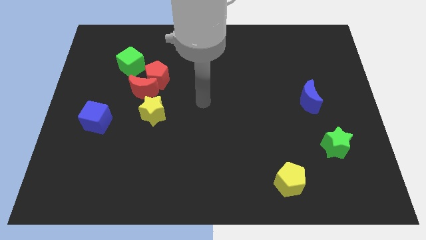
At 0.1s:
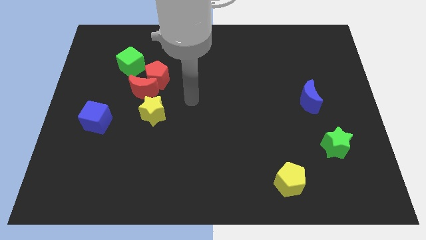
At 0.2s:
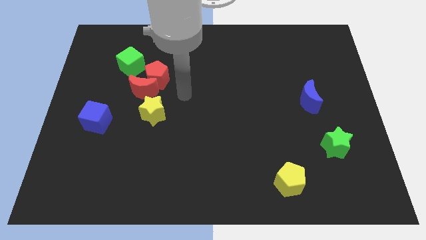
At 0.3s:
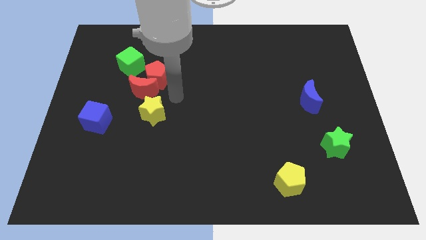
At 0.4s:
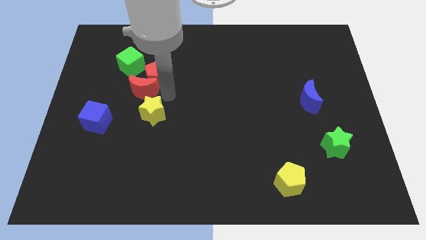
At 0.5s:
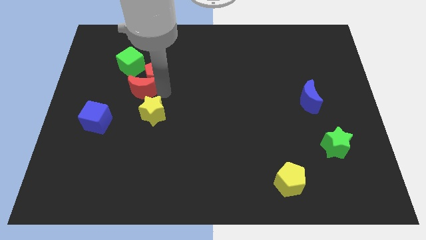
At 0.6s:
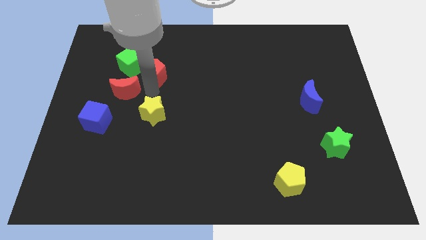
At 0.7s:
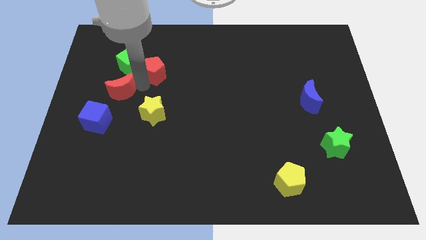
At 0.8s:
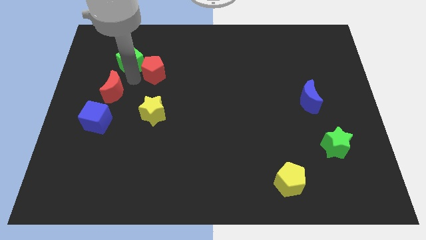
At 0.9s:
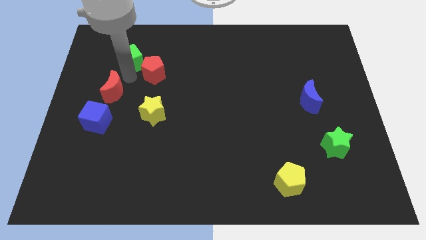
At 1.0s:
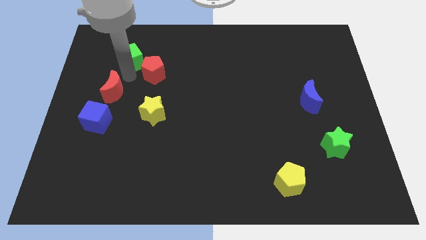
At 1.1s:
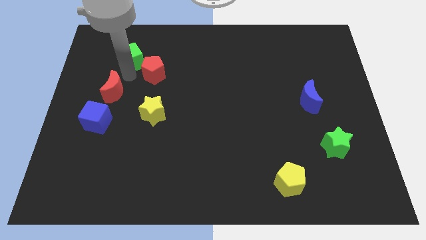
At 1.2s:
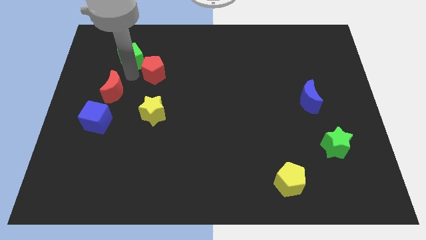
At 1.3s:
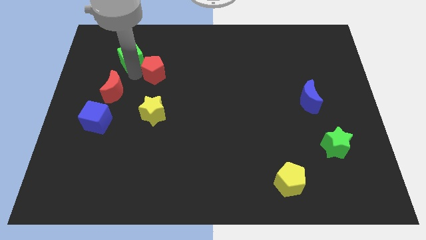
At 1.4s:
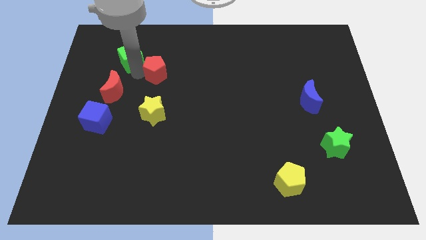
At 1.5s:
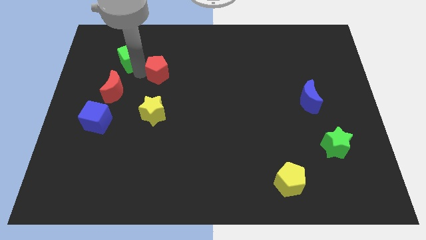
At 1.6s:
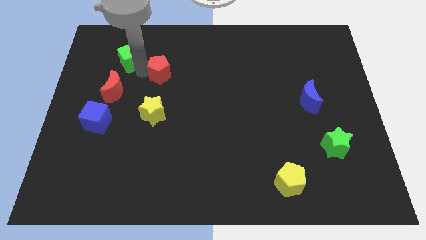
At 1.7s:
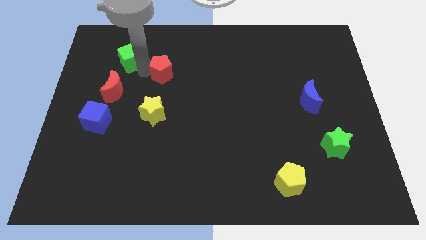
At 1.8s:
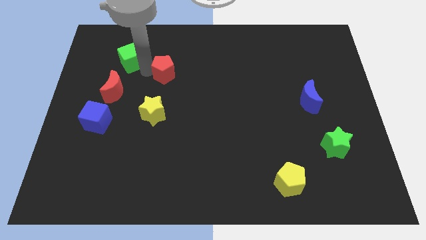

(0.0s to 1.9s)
move the red pentagon away from the red moon and green cube

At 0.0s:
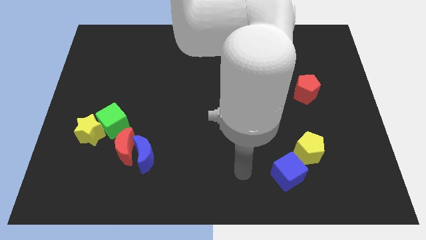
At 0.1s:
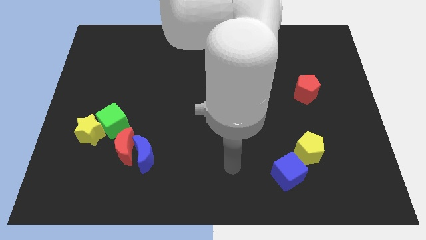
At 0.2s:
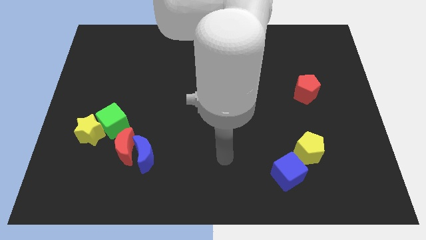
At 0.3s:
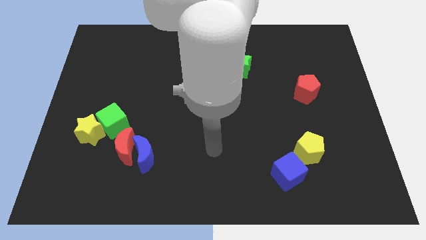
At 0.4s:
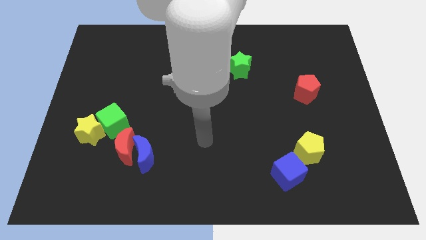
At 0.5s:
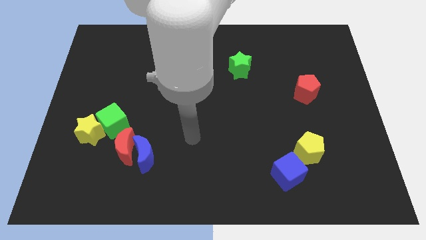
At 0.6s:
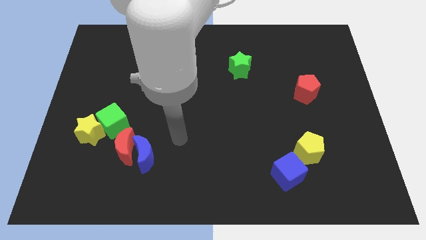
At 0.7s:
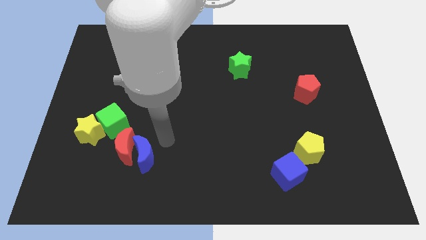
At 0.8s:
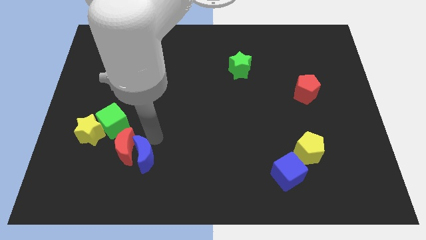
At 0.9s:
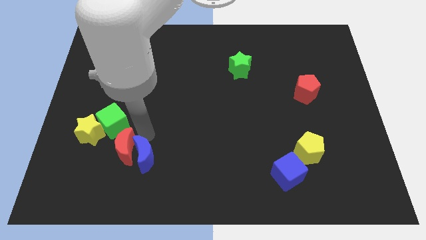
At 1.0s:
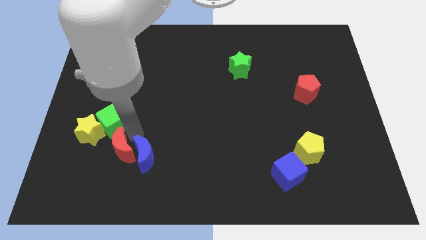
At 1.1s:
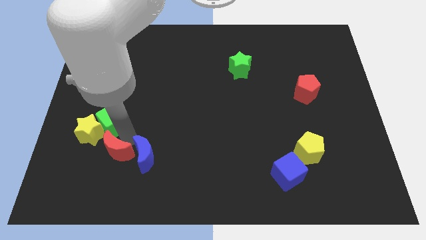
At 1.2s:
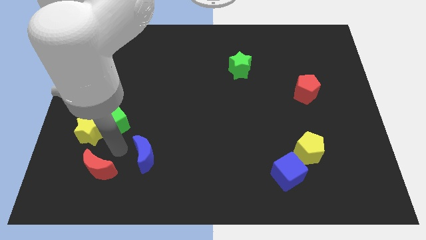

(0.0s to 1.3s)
move the blue moon away from the red moon

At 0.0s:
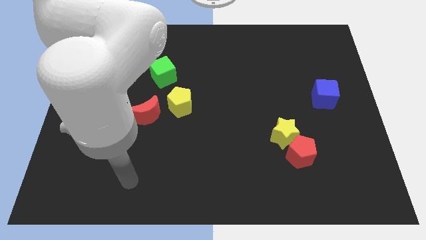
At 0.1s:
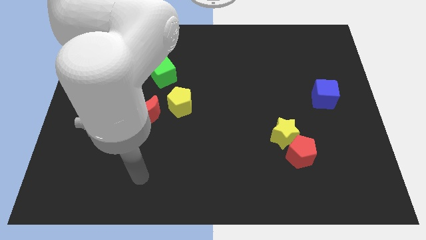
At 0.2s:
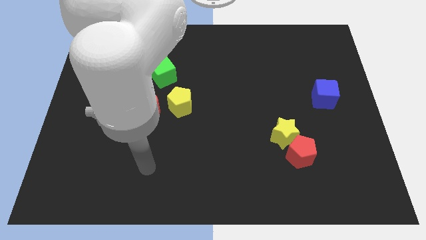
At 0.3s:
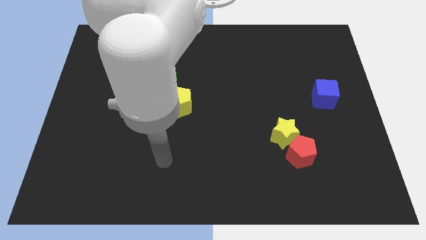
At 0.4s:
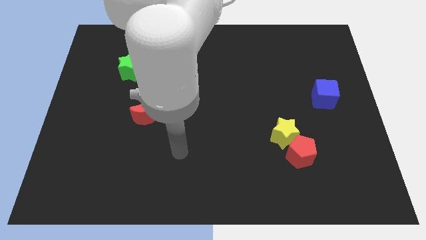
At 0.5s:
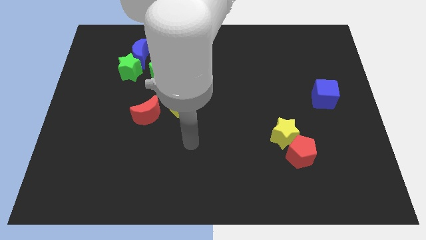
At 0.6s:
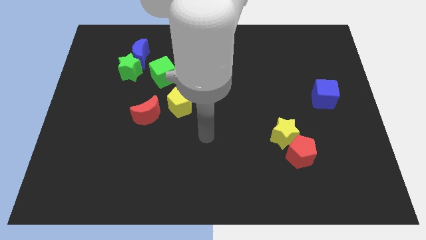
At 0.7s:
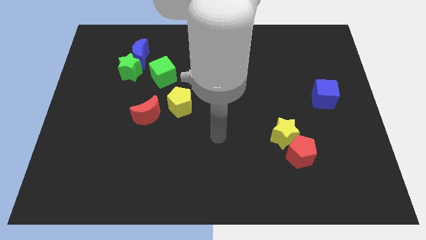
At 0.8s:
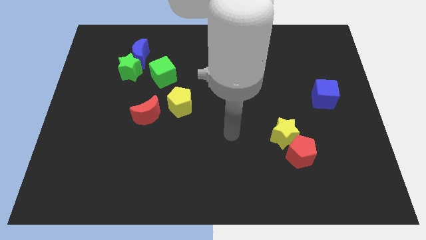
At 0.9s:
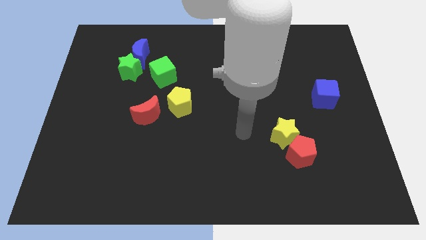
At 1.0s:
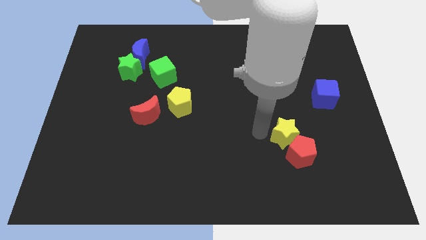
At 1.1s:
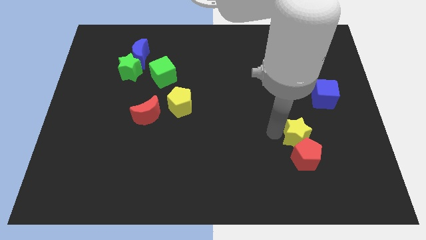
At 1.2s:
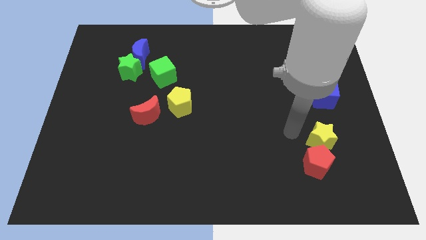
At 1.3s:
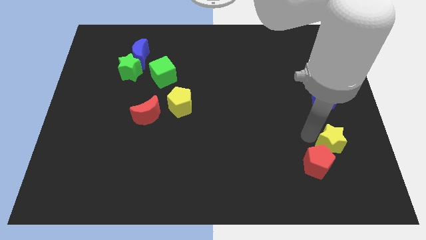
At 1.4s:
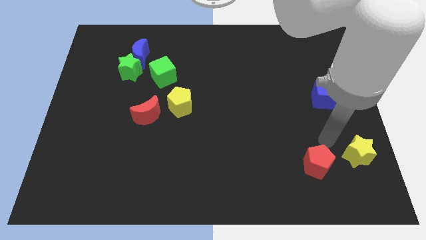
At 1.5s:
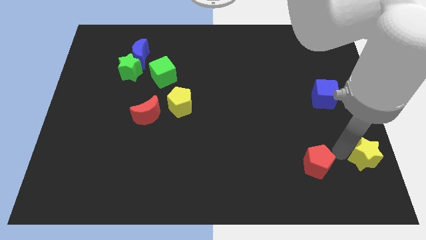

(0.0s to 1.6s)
pull the red pentagon apart from the yellow star

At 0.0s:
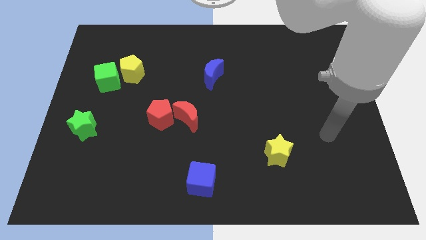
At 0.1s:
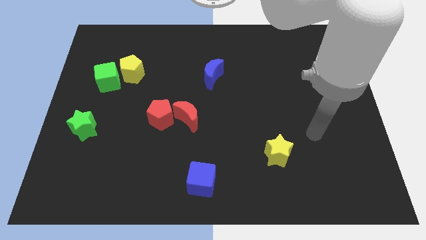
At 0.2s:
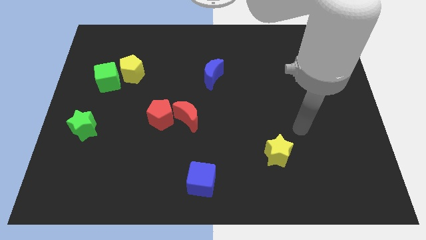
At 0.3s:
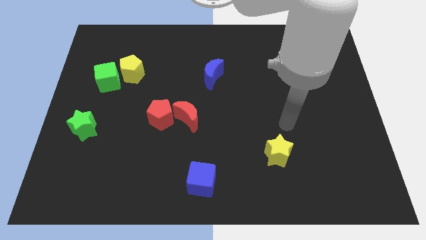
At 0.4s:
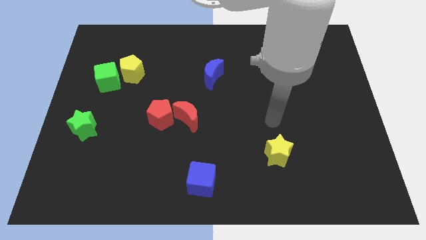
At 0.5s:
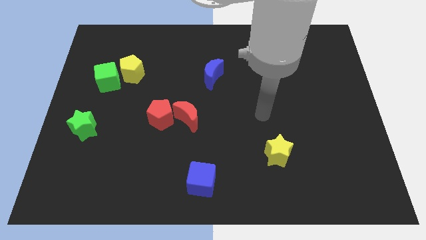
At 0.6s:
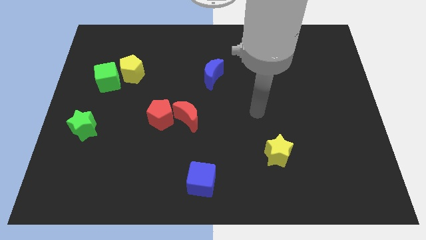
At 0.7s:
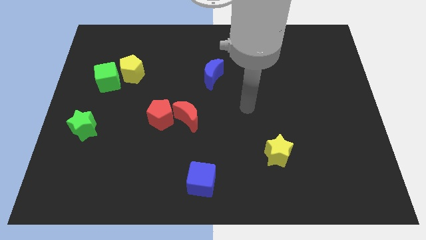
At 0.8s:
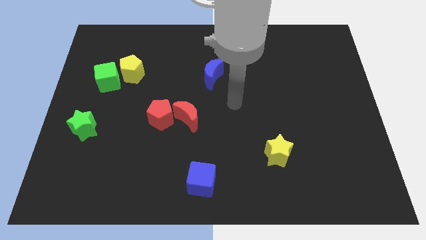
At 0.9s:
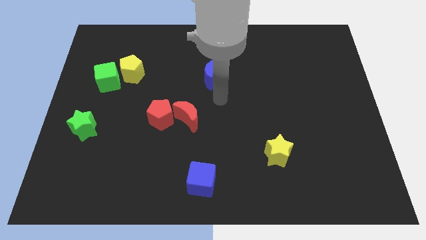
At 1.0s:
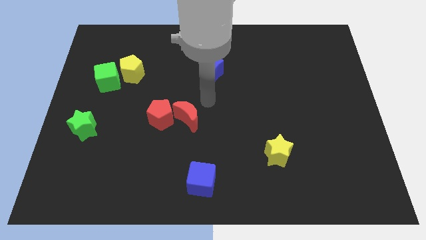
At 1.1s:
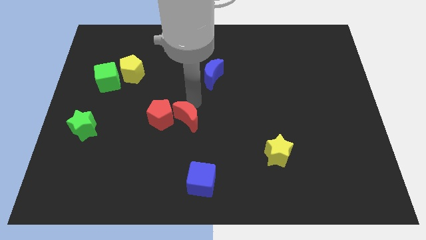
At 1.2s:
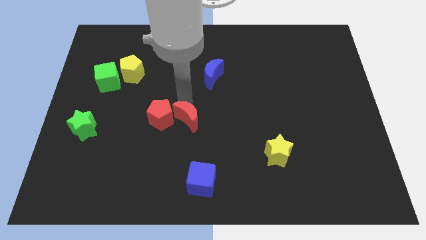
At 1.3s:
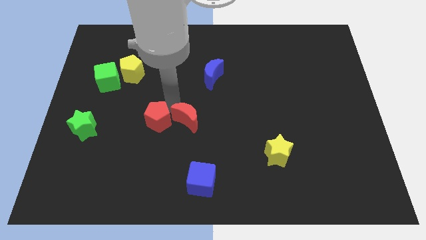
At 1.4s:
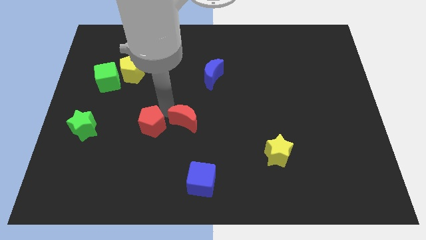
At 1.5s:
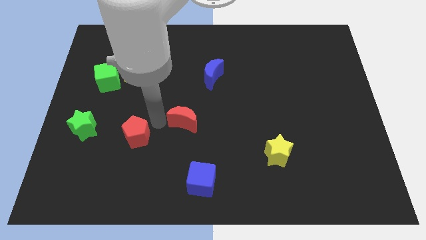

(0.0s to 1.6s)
move the red moon away from the red pentagon

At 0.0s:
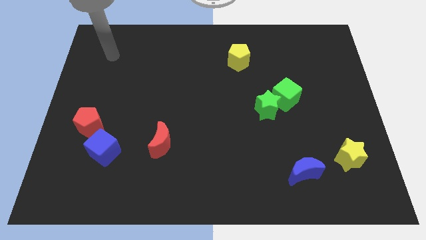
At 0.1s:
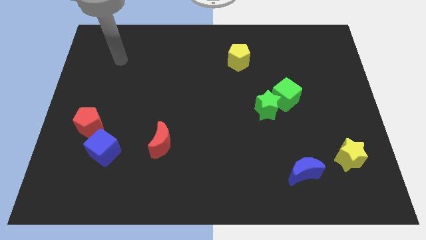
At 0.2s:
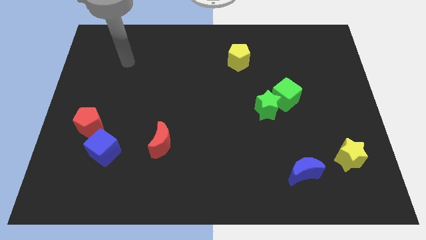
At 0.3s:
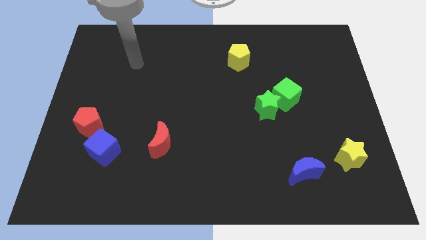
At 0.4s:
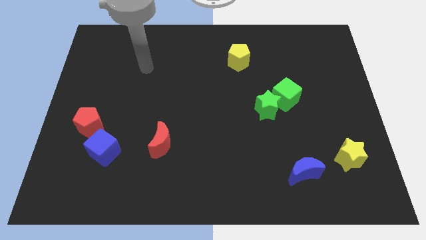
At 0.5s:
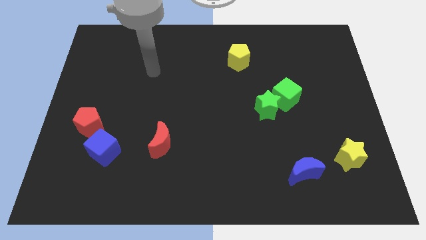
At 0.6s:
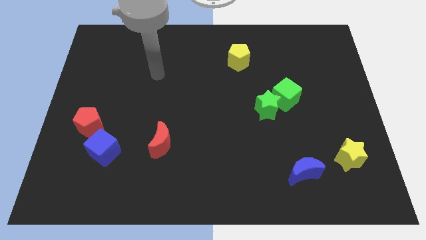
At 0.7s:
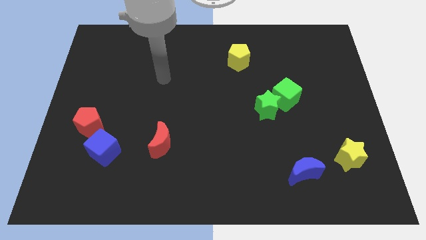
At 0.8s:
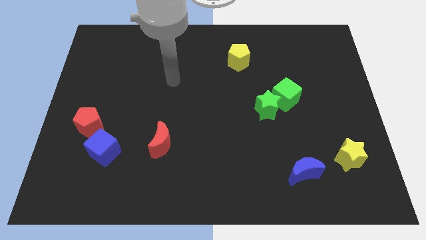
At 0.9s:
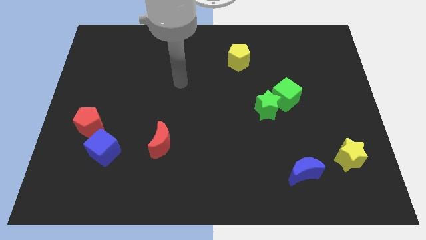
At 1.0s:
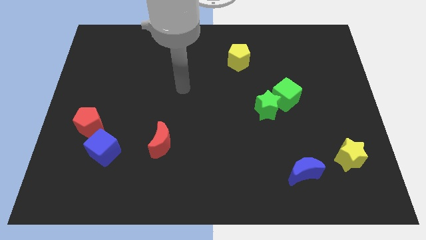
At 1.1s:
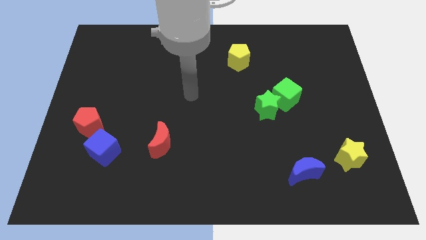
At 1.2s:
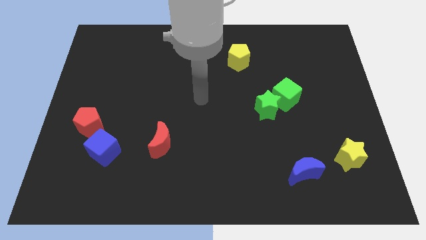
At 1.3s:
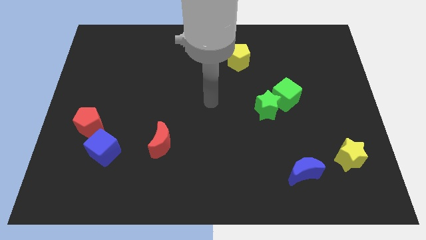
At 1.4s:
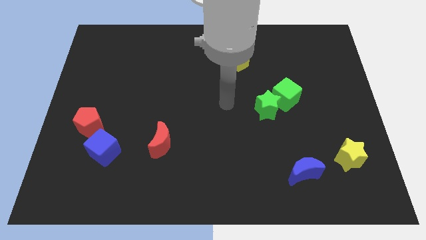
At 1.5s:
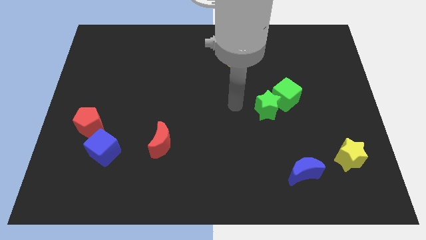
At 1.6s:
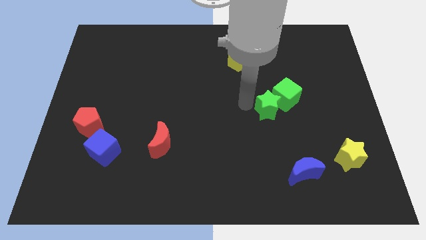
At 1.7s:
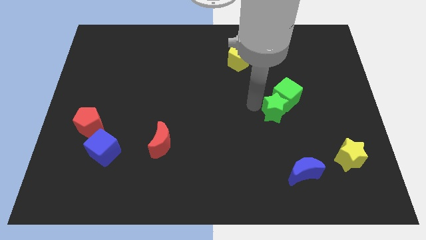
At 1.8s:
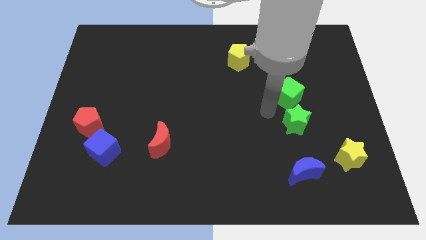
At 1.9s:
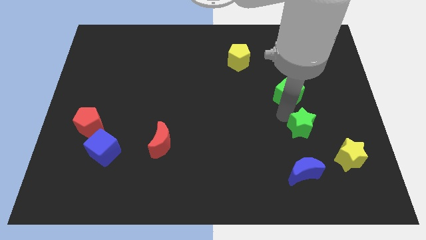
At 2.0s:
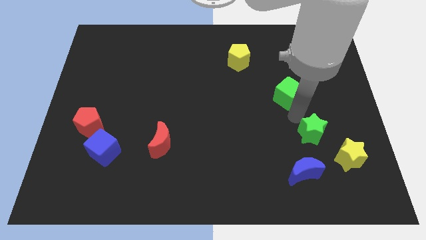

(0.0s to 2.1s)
pull the green cube apart from the green star

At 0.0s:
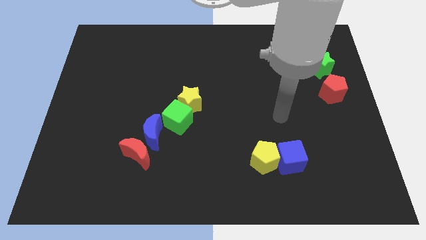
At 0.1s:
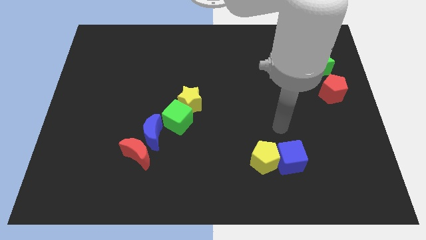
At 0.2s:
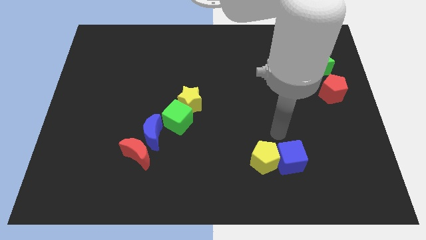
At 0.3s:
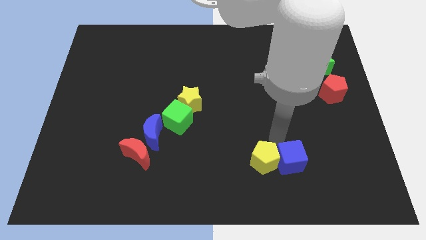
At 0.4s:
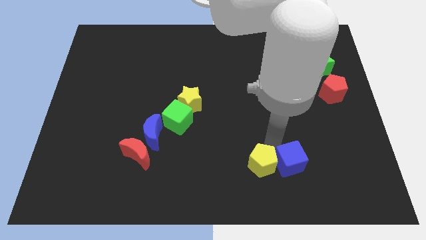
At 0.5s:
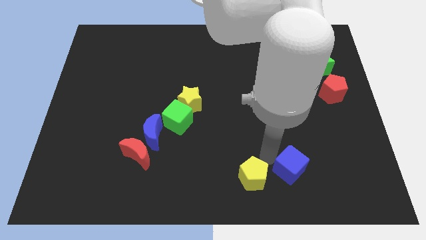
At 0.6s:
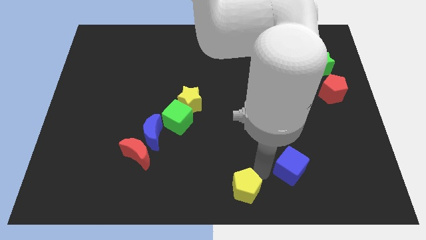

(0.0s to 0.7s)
separate the blue cube from the yellow pentagon
